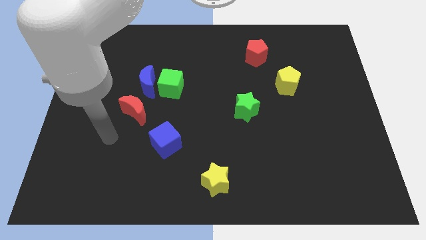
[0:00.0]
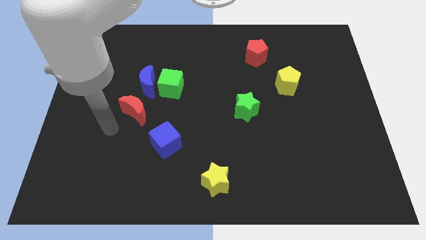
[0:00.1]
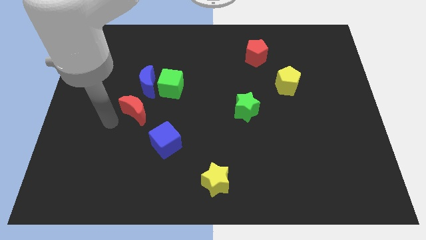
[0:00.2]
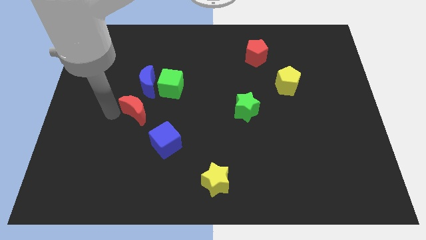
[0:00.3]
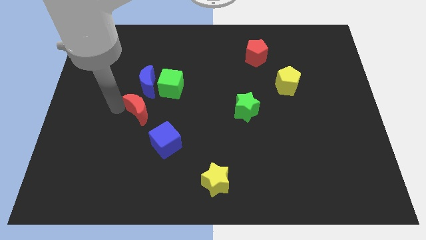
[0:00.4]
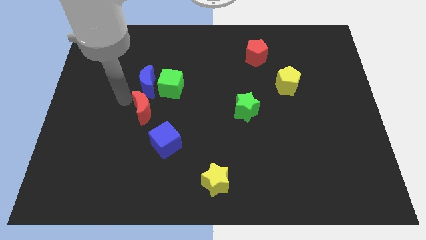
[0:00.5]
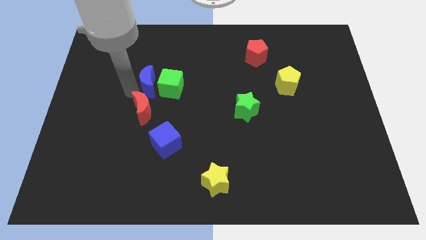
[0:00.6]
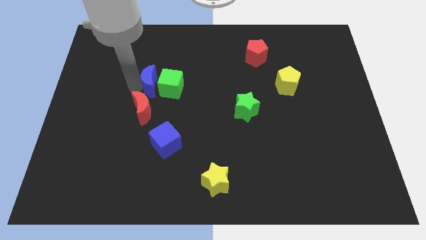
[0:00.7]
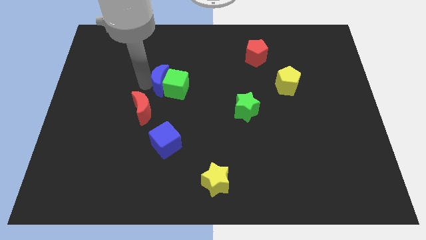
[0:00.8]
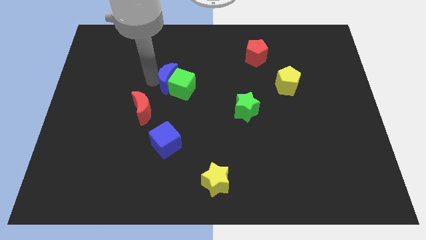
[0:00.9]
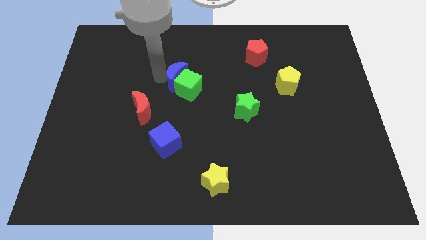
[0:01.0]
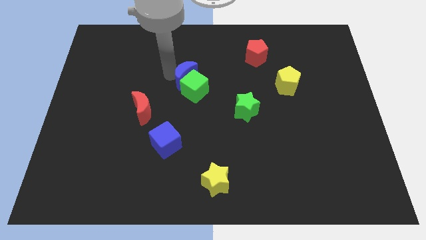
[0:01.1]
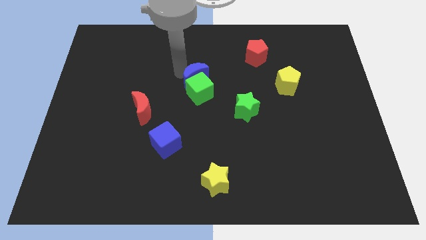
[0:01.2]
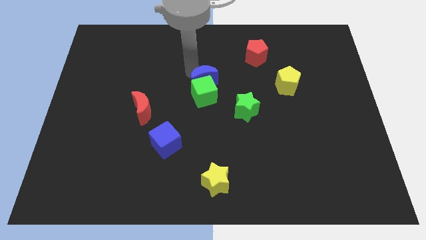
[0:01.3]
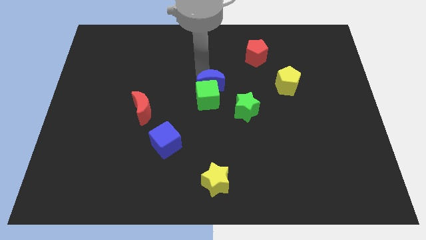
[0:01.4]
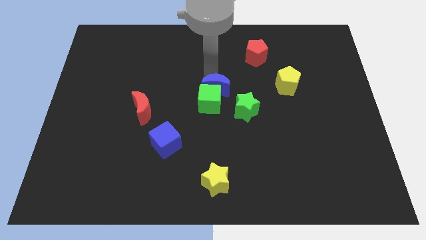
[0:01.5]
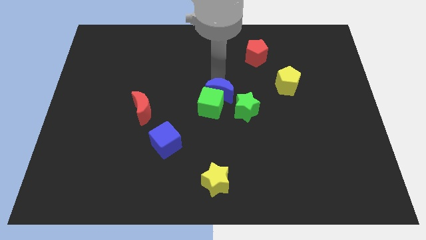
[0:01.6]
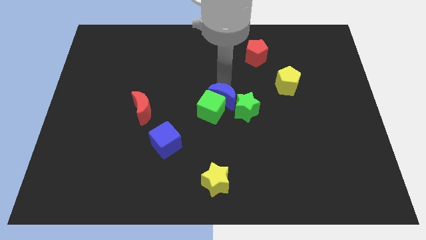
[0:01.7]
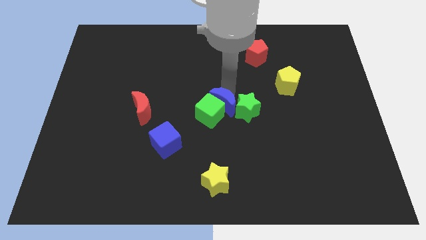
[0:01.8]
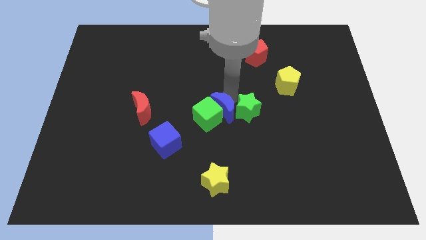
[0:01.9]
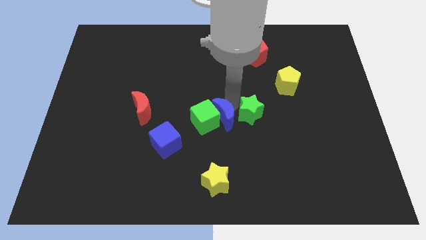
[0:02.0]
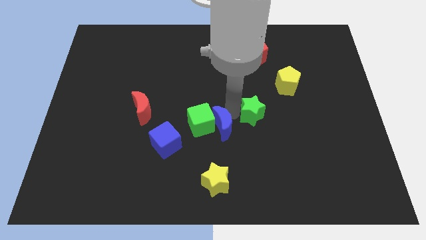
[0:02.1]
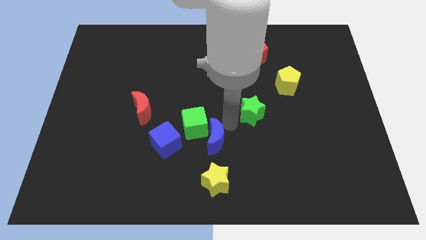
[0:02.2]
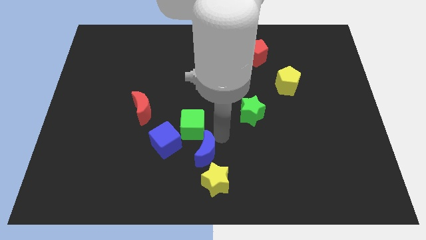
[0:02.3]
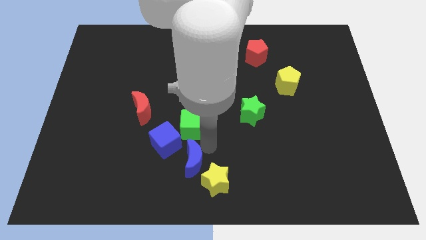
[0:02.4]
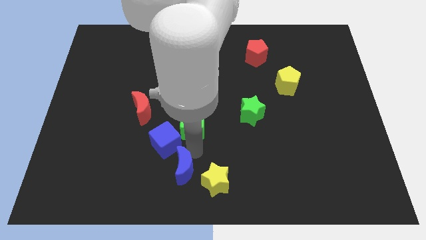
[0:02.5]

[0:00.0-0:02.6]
pull the green cube apart from the blue moon

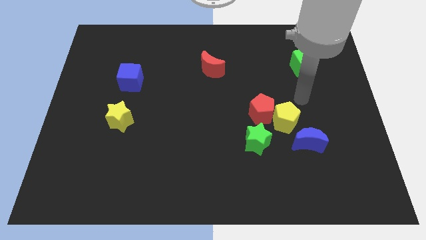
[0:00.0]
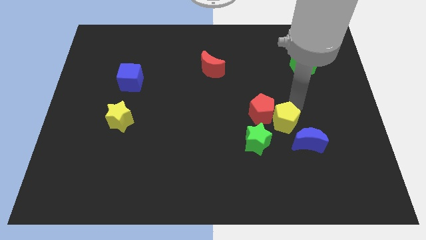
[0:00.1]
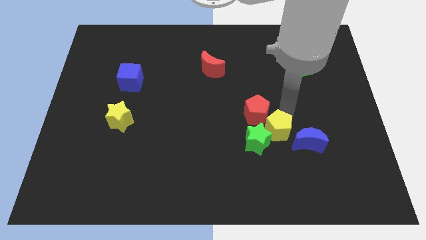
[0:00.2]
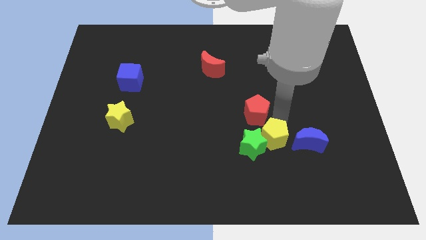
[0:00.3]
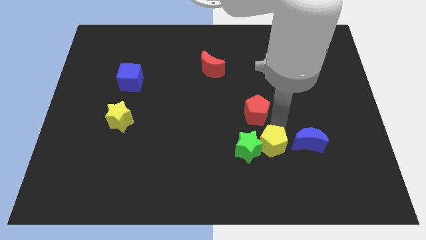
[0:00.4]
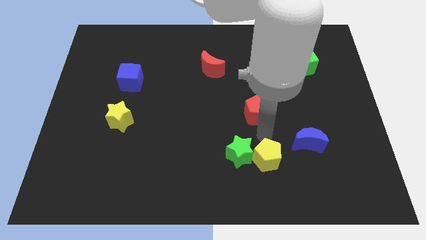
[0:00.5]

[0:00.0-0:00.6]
pull the red pentagon apart from the yellow pentagon and green star

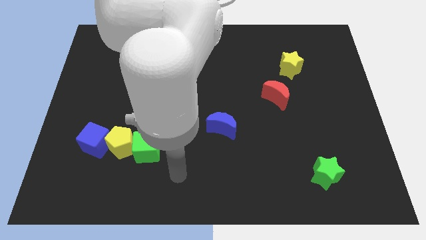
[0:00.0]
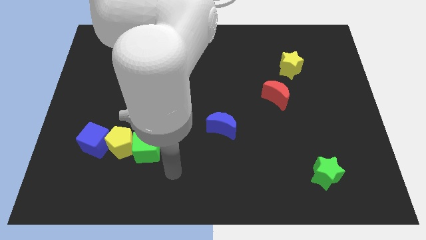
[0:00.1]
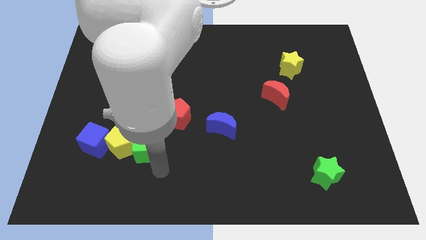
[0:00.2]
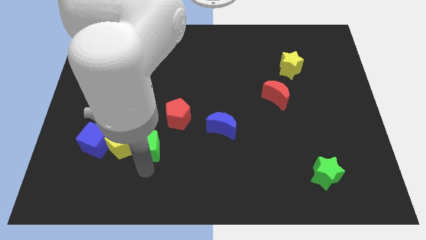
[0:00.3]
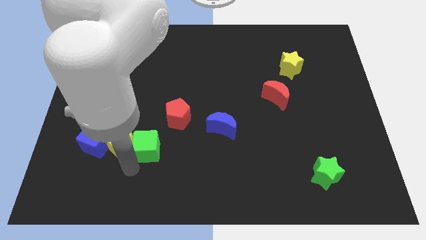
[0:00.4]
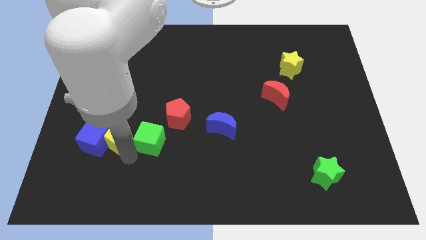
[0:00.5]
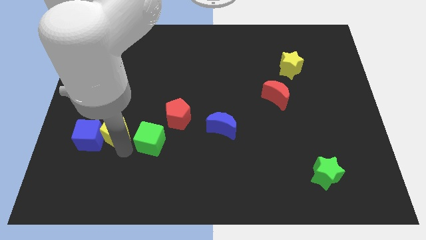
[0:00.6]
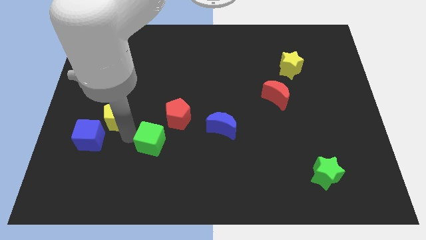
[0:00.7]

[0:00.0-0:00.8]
separate the green cube from the yellow pentagon

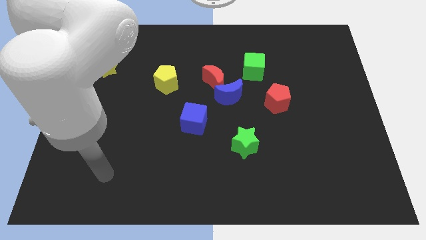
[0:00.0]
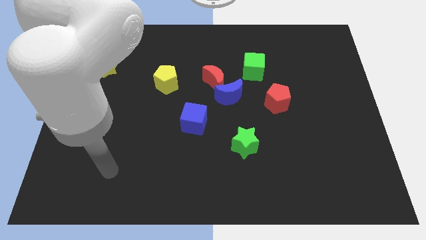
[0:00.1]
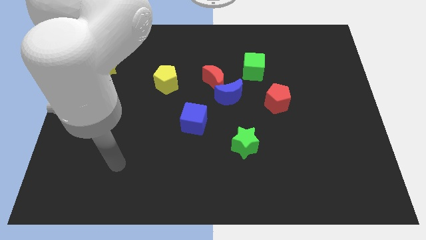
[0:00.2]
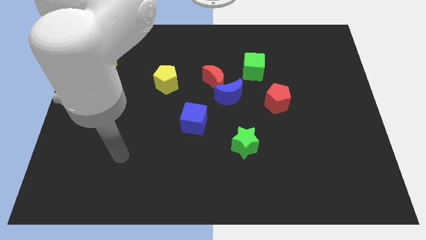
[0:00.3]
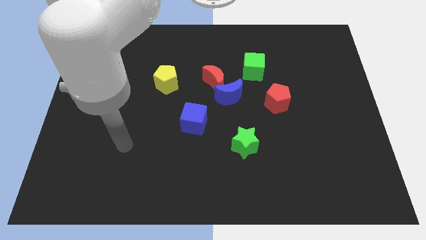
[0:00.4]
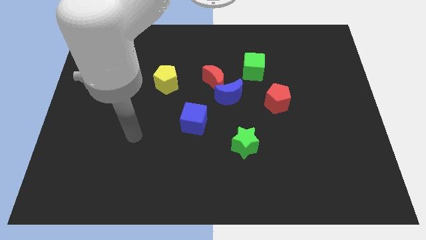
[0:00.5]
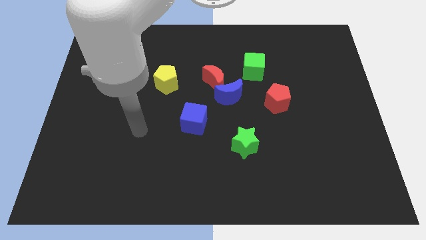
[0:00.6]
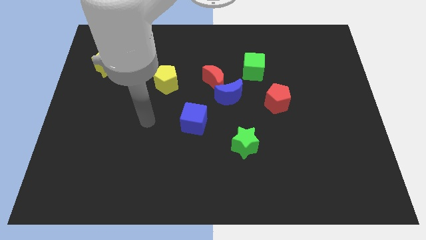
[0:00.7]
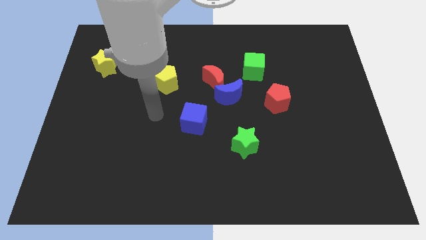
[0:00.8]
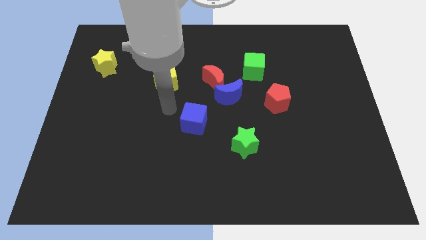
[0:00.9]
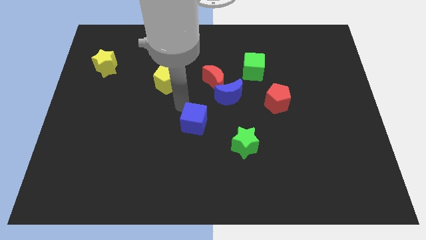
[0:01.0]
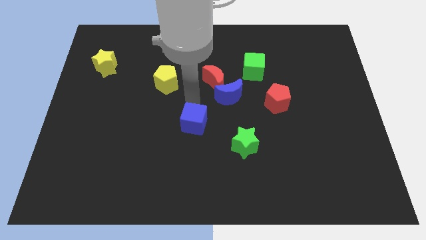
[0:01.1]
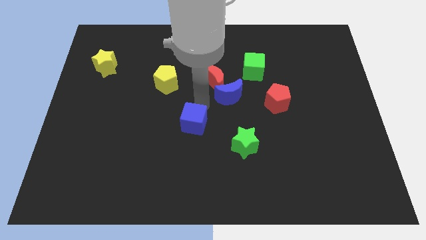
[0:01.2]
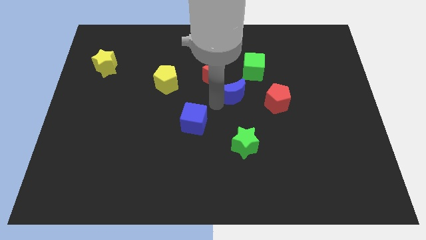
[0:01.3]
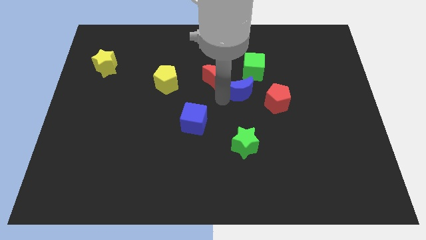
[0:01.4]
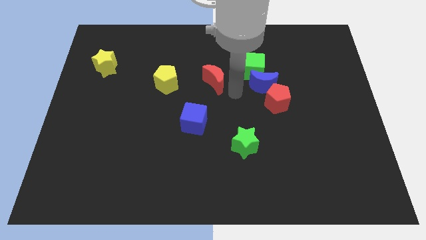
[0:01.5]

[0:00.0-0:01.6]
move the red moon away from the blue moon

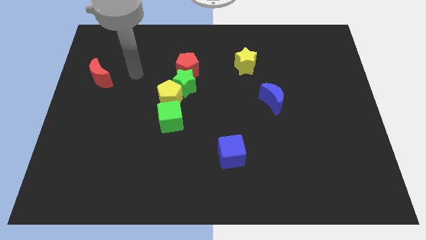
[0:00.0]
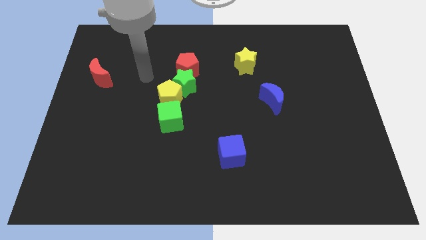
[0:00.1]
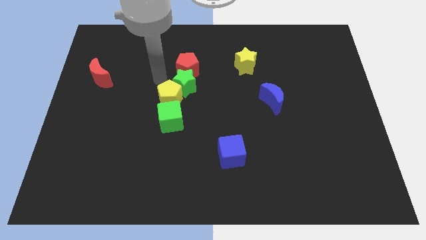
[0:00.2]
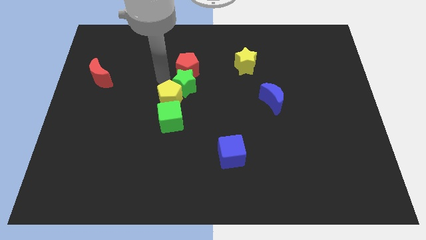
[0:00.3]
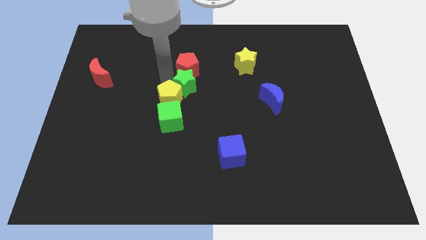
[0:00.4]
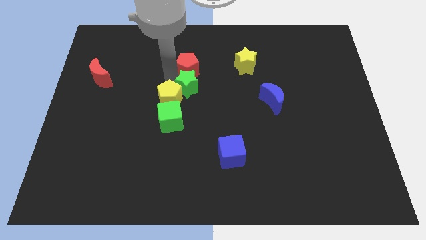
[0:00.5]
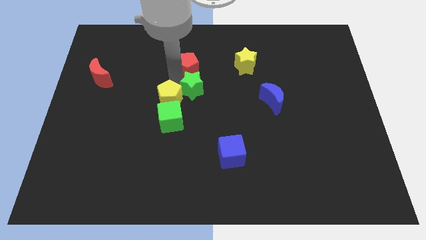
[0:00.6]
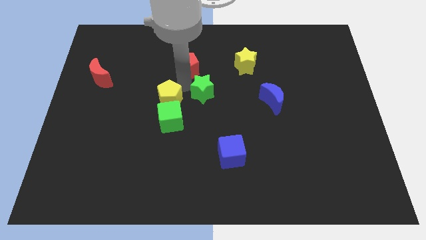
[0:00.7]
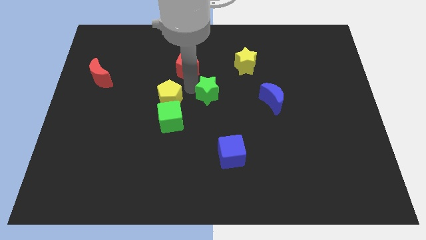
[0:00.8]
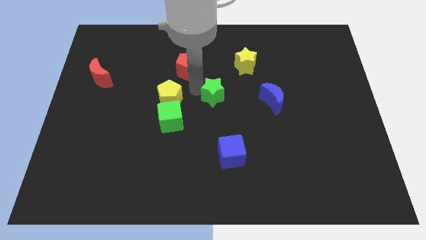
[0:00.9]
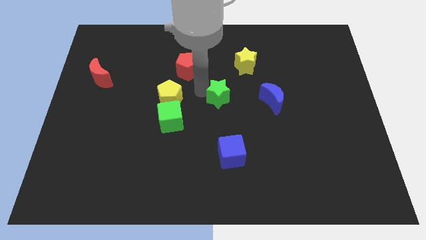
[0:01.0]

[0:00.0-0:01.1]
move the green star away from the yellow pentagon and red pentagon

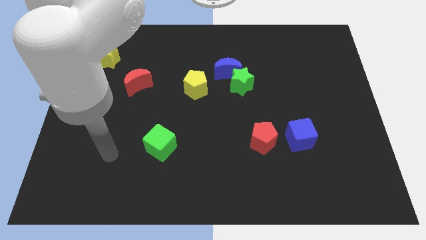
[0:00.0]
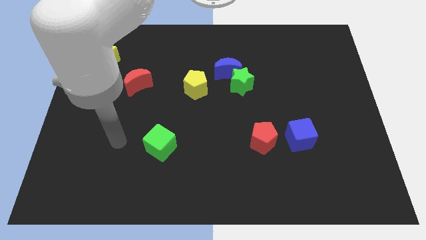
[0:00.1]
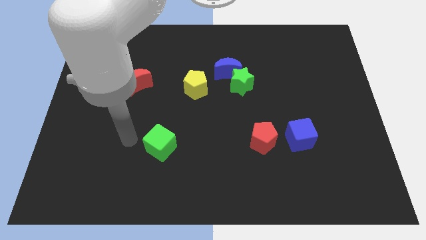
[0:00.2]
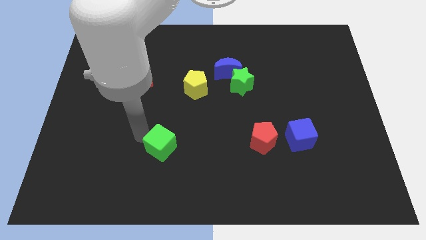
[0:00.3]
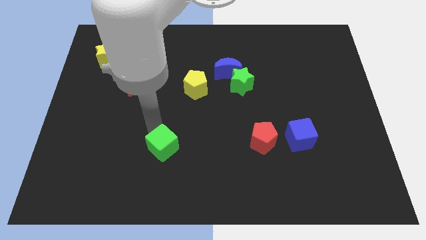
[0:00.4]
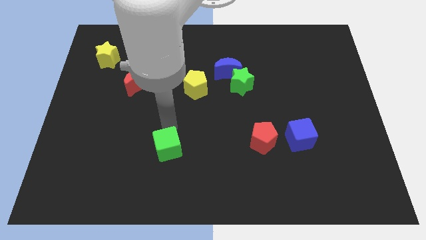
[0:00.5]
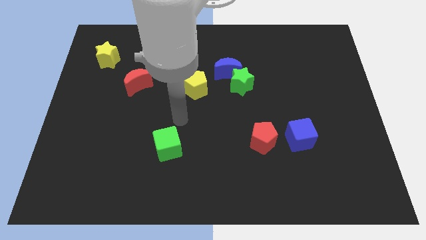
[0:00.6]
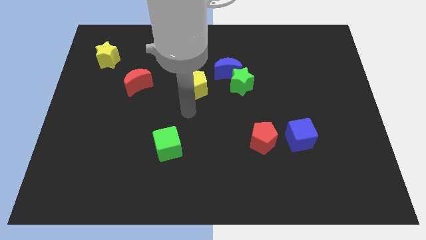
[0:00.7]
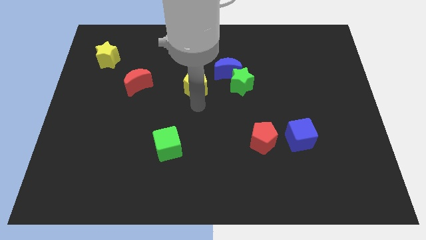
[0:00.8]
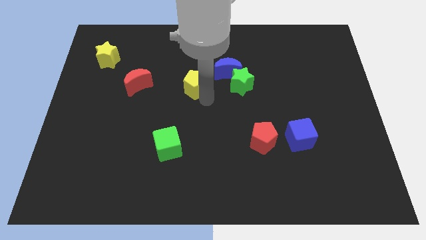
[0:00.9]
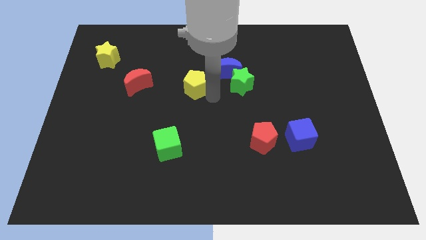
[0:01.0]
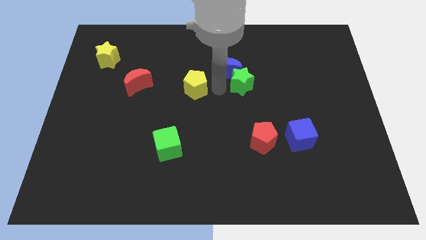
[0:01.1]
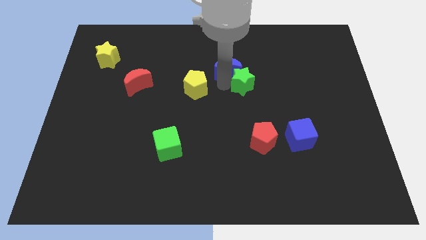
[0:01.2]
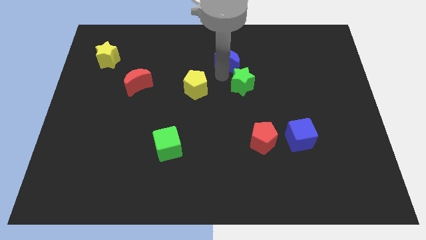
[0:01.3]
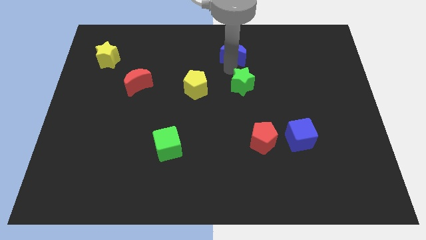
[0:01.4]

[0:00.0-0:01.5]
move the green star away from the blue moon

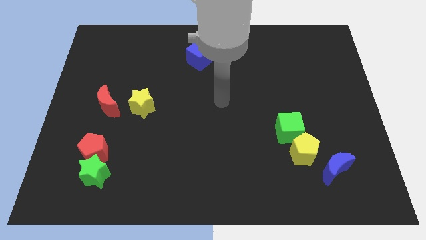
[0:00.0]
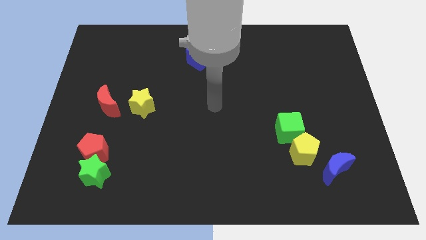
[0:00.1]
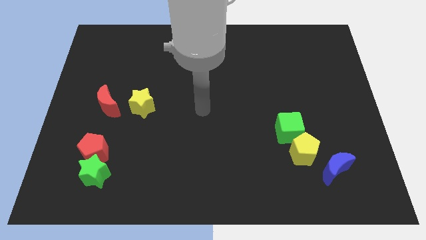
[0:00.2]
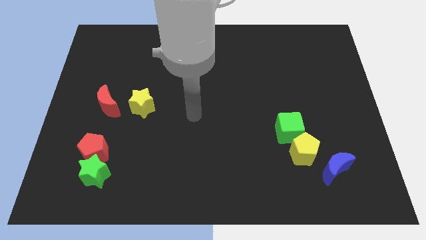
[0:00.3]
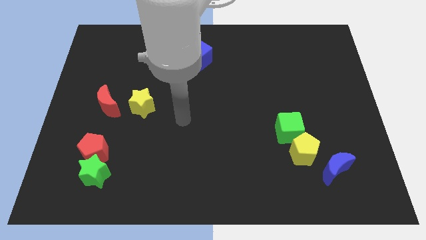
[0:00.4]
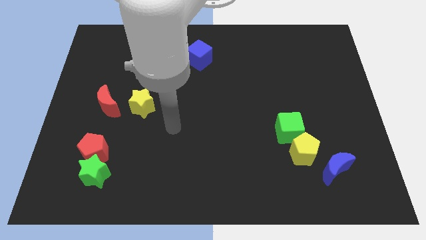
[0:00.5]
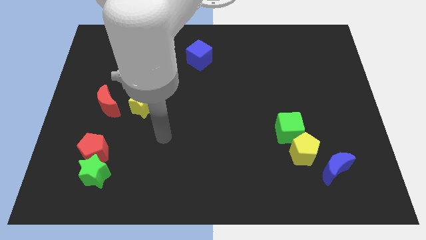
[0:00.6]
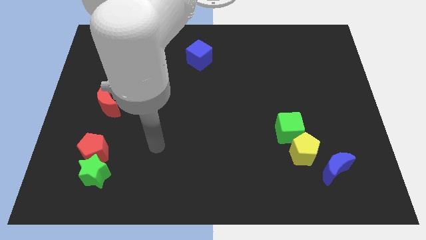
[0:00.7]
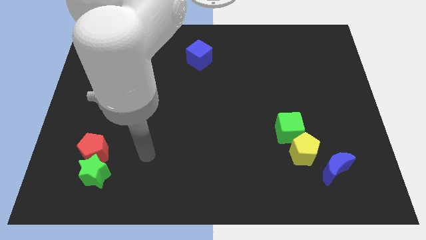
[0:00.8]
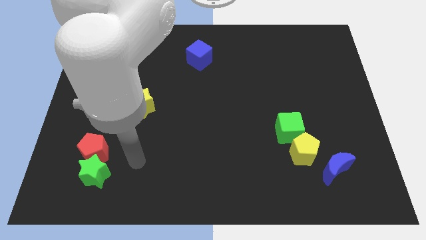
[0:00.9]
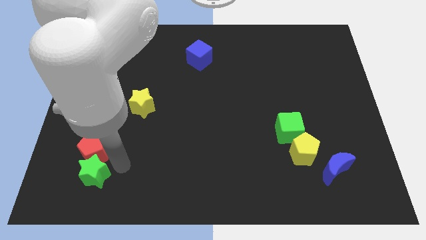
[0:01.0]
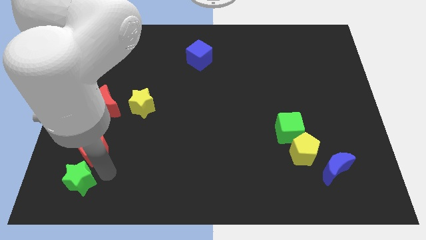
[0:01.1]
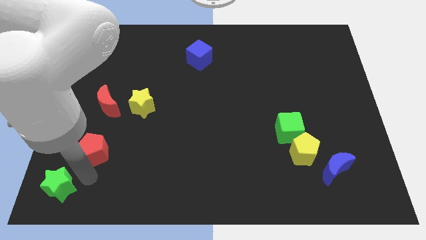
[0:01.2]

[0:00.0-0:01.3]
move the red pentagon away from the green star
